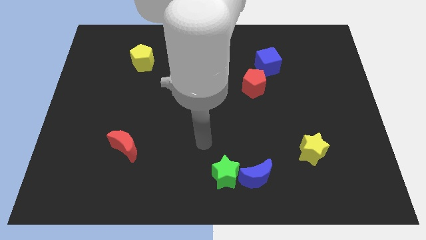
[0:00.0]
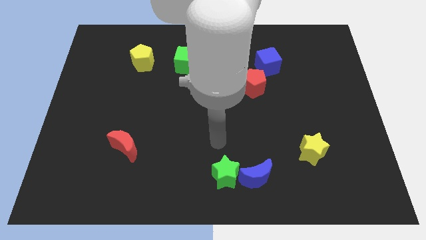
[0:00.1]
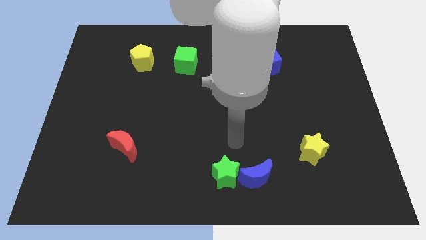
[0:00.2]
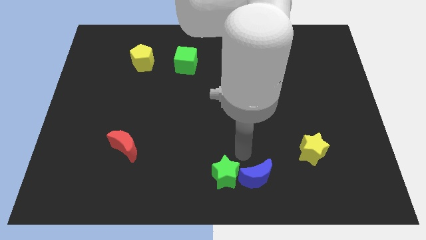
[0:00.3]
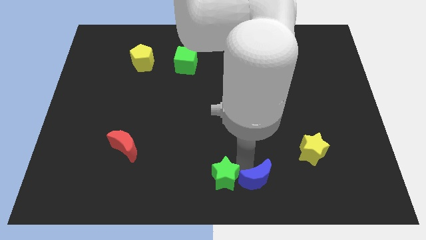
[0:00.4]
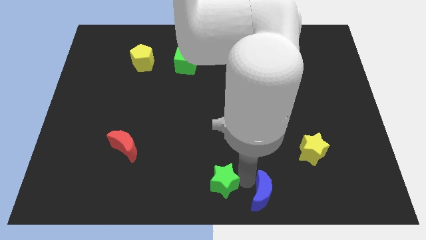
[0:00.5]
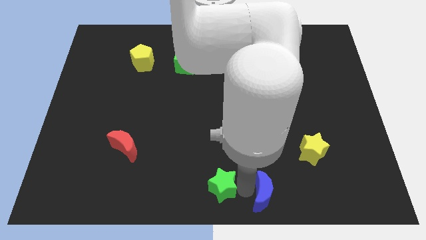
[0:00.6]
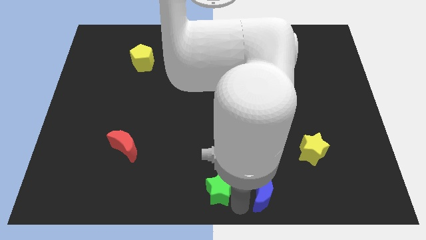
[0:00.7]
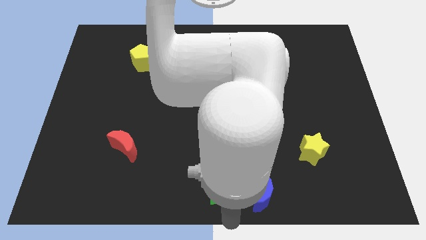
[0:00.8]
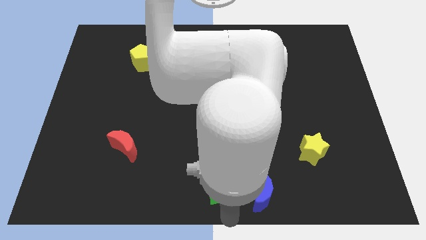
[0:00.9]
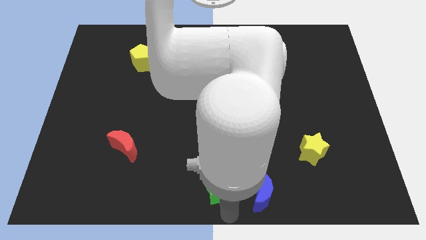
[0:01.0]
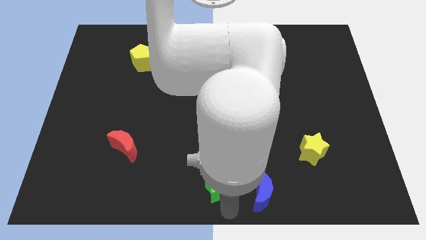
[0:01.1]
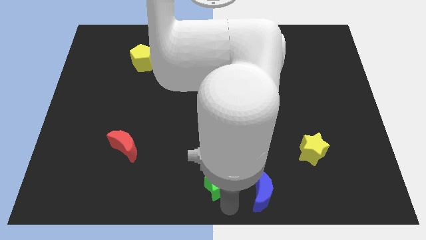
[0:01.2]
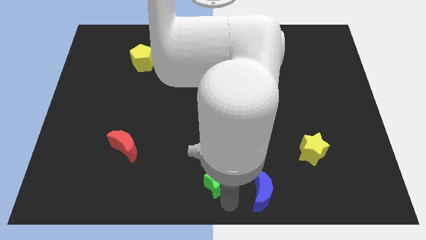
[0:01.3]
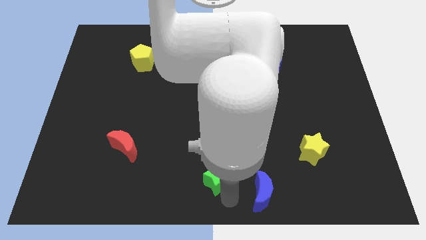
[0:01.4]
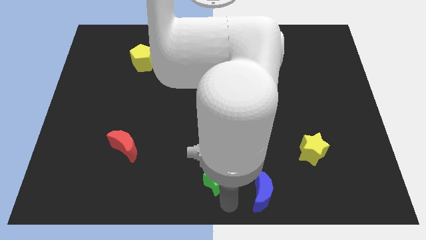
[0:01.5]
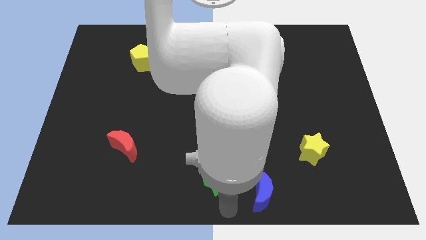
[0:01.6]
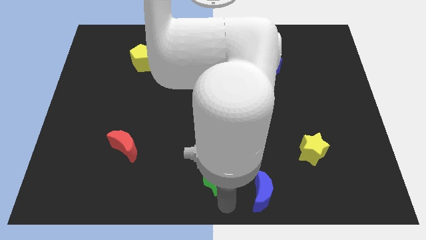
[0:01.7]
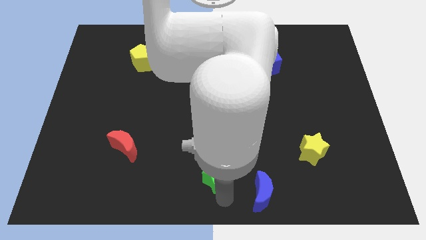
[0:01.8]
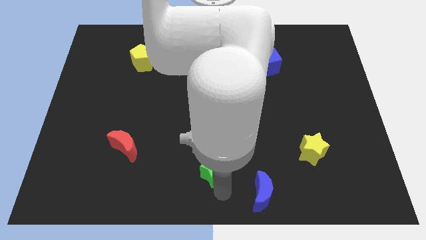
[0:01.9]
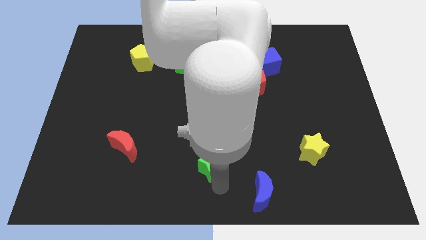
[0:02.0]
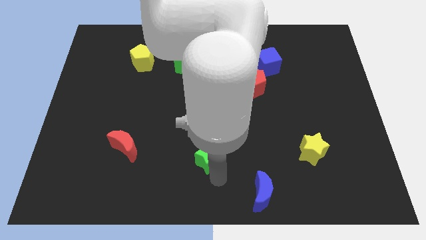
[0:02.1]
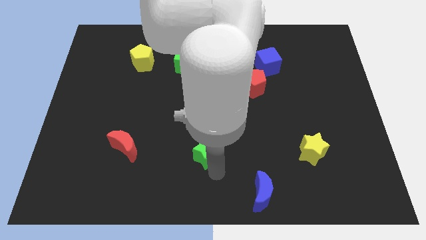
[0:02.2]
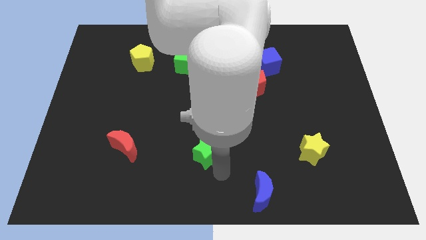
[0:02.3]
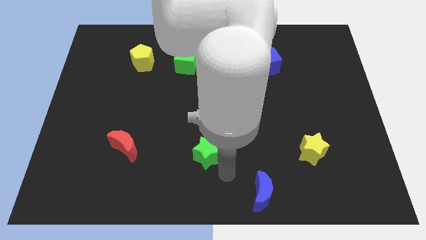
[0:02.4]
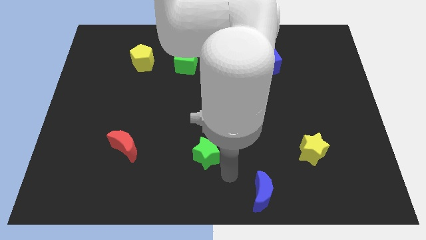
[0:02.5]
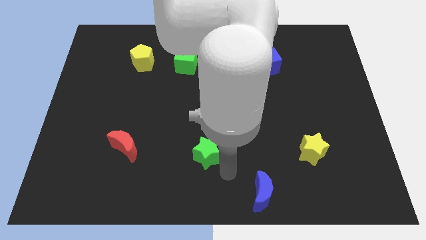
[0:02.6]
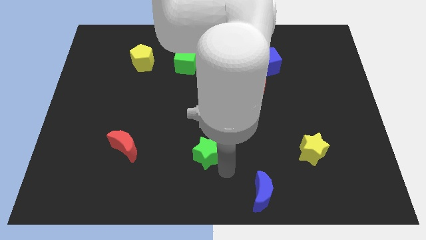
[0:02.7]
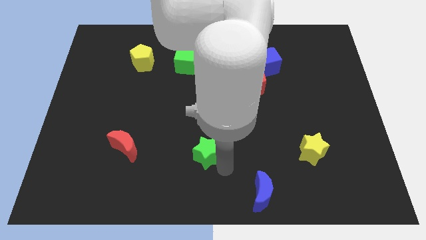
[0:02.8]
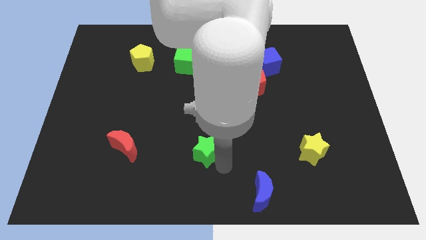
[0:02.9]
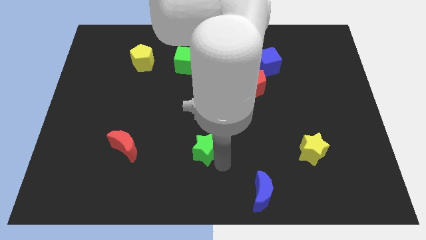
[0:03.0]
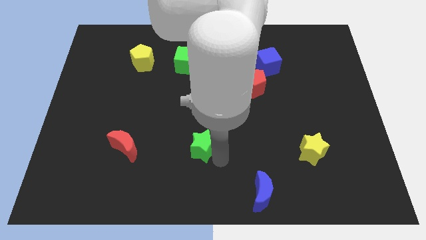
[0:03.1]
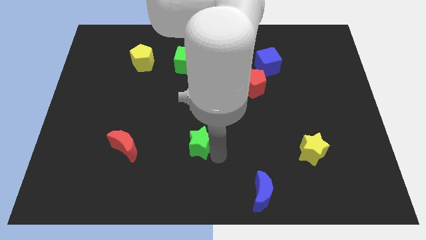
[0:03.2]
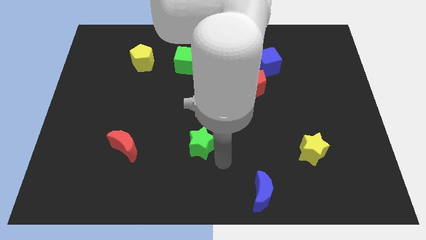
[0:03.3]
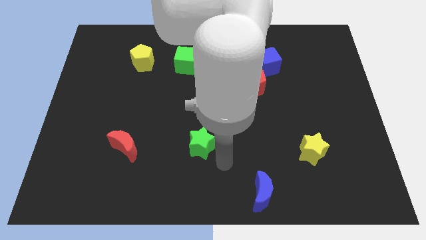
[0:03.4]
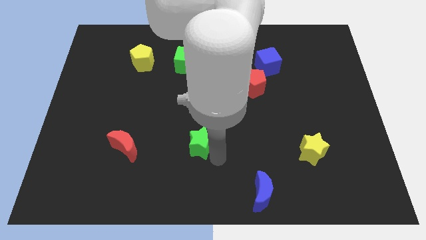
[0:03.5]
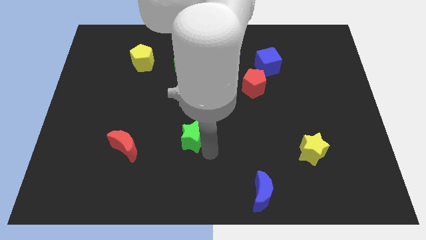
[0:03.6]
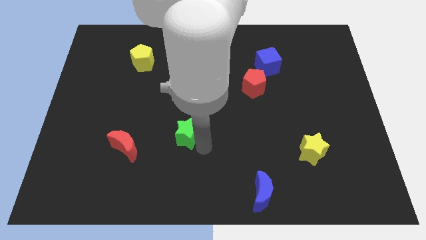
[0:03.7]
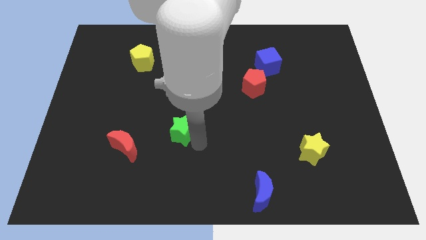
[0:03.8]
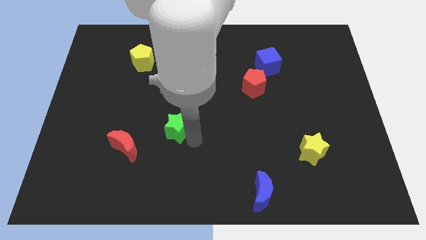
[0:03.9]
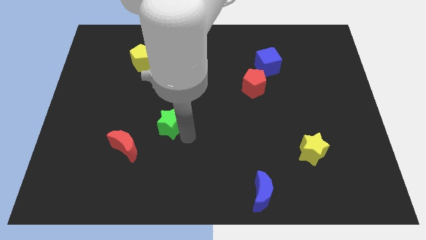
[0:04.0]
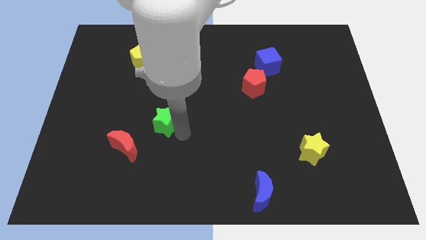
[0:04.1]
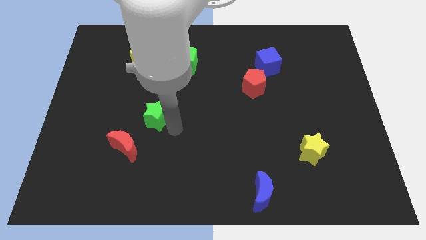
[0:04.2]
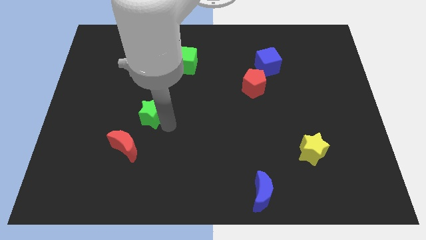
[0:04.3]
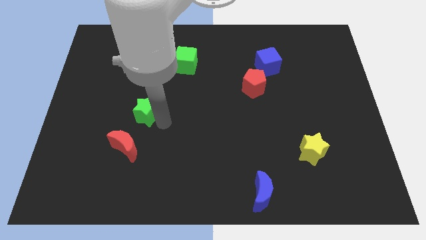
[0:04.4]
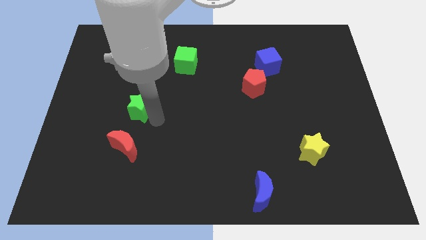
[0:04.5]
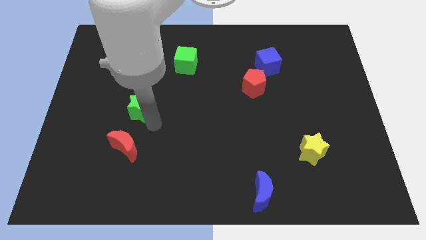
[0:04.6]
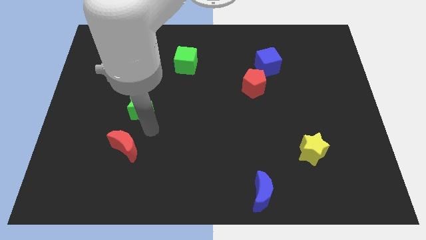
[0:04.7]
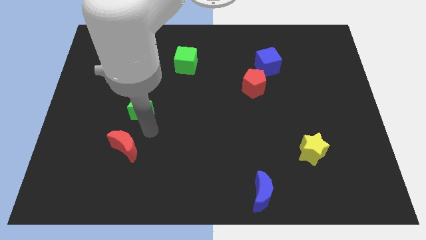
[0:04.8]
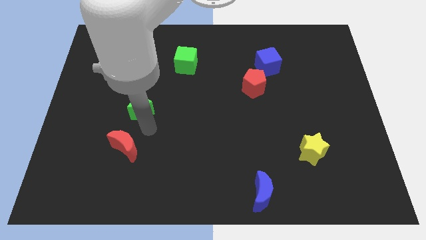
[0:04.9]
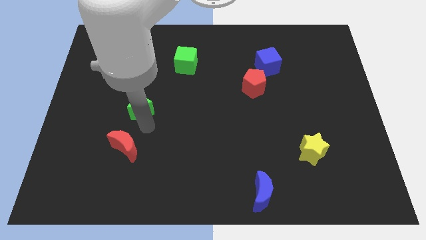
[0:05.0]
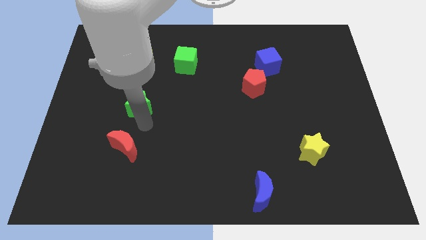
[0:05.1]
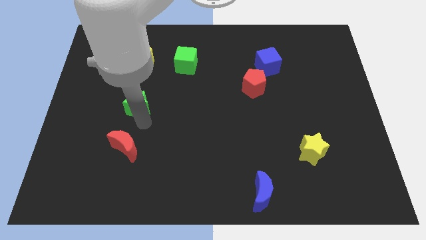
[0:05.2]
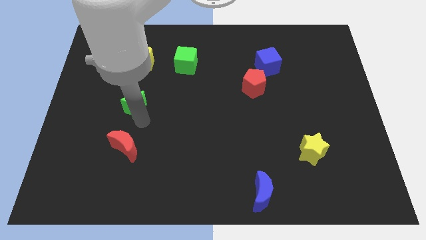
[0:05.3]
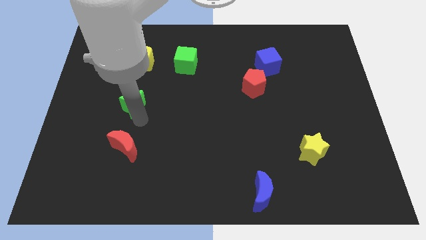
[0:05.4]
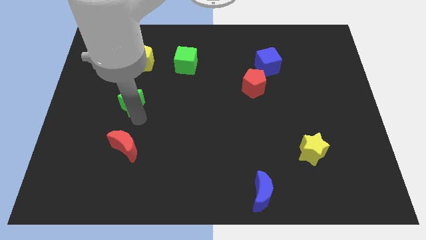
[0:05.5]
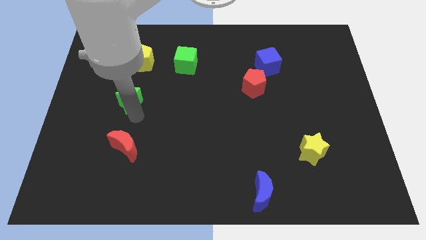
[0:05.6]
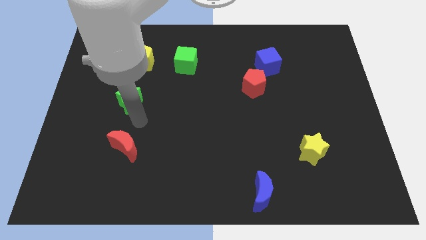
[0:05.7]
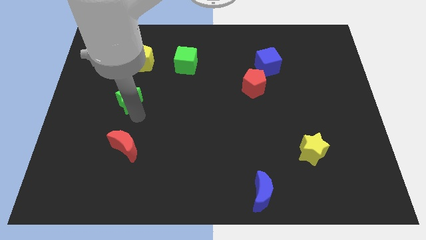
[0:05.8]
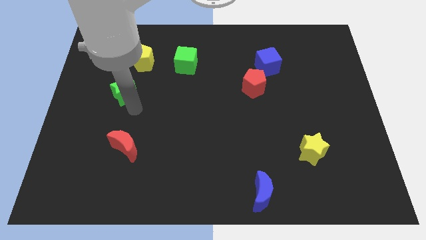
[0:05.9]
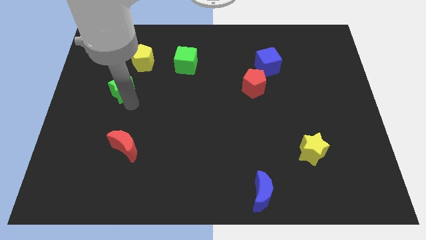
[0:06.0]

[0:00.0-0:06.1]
move the green star diagonally down and to the left of the yellow pentagon

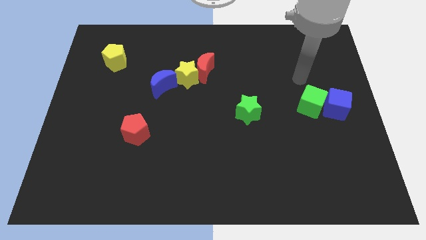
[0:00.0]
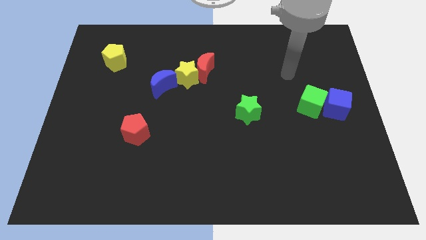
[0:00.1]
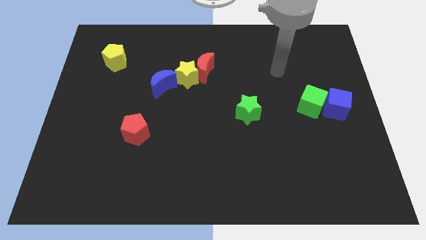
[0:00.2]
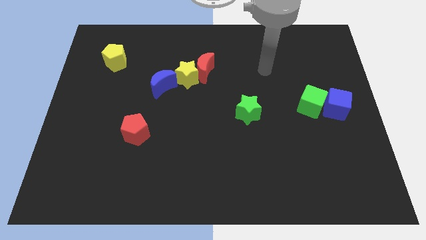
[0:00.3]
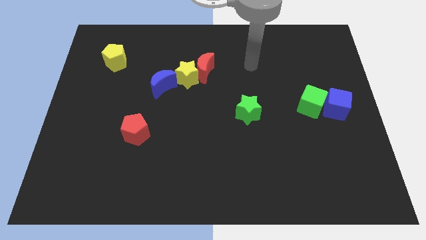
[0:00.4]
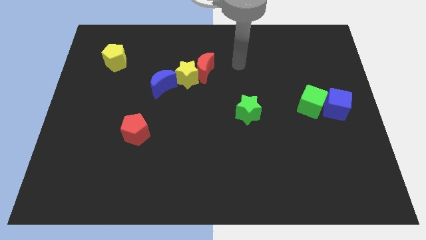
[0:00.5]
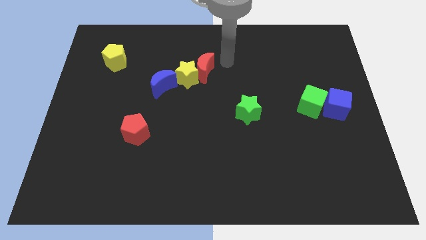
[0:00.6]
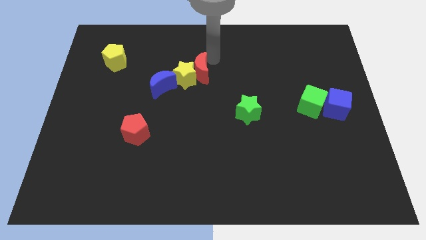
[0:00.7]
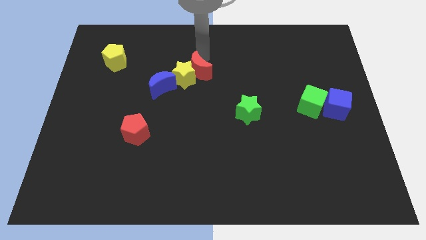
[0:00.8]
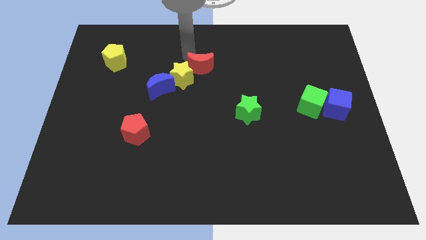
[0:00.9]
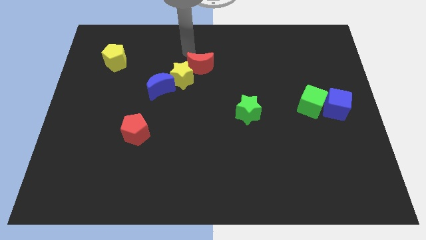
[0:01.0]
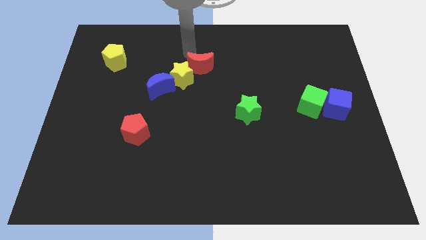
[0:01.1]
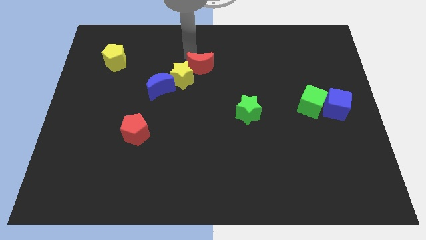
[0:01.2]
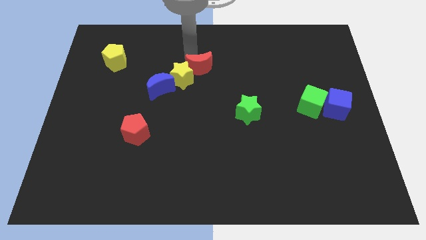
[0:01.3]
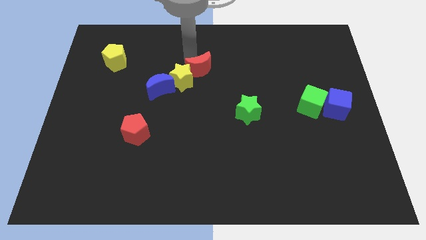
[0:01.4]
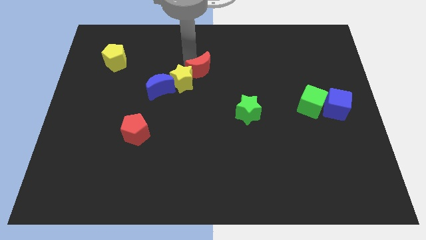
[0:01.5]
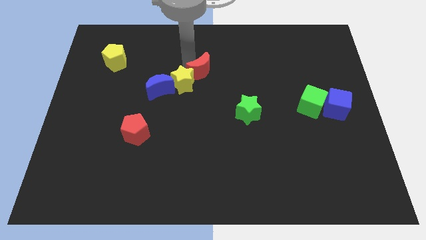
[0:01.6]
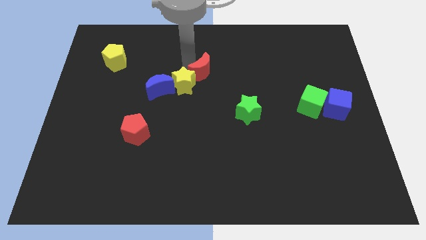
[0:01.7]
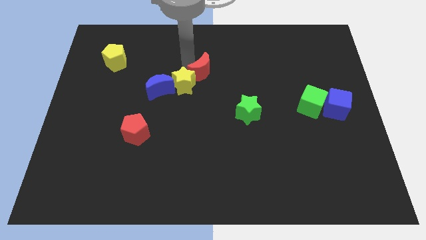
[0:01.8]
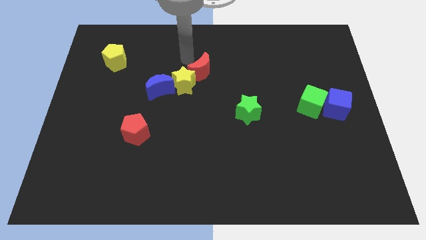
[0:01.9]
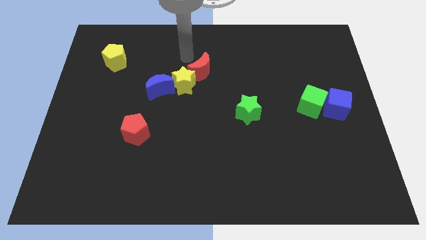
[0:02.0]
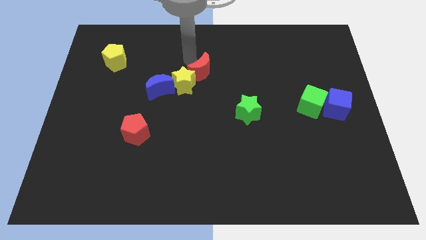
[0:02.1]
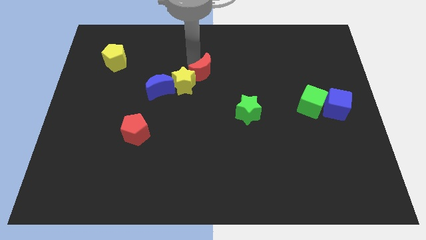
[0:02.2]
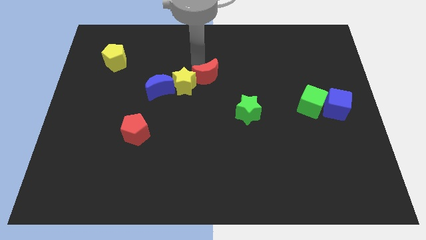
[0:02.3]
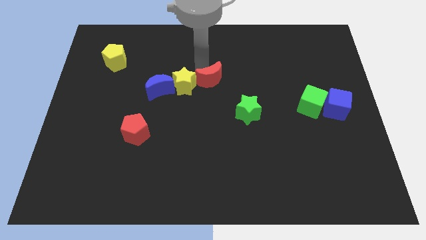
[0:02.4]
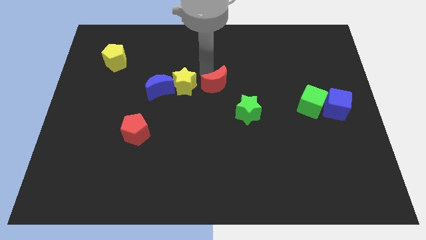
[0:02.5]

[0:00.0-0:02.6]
move the red moon to the top left of the green star
